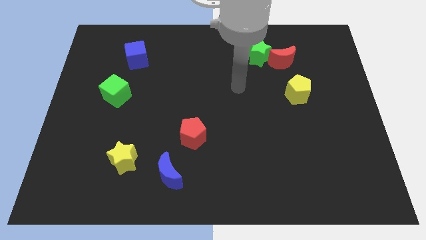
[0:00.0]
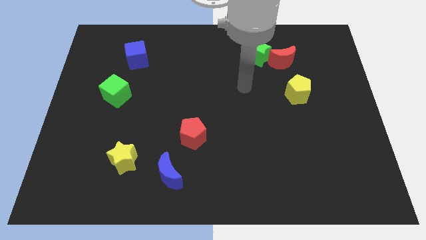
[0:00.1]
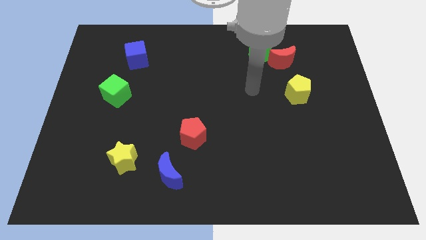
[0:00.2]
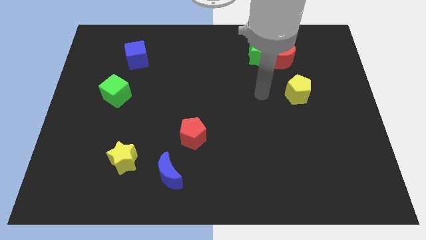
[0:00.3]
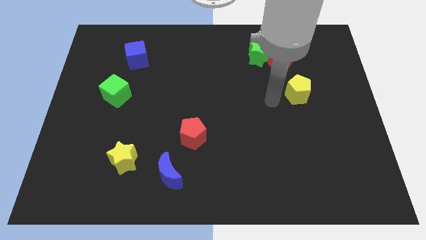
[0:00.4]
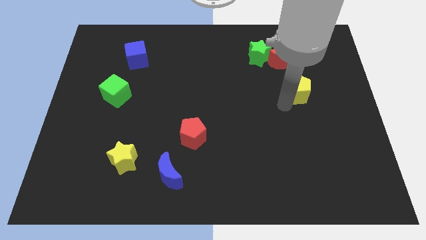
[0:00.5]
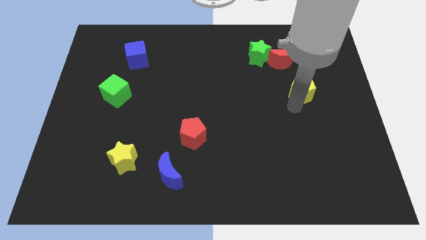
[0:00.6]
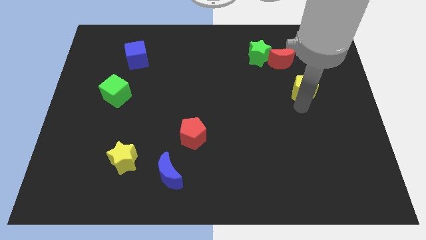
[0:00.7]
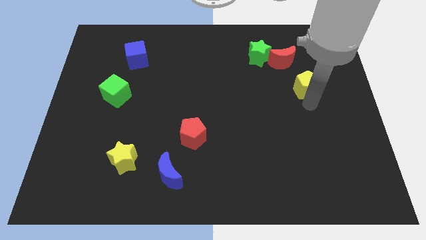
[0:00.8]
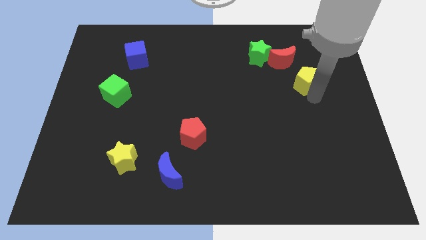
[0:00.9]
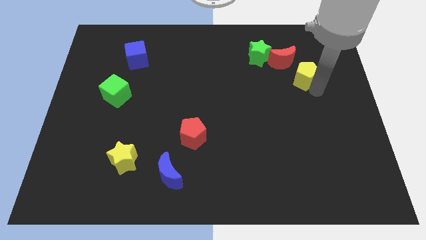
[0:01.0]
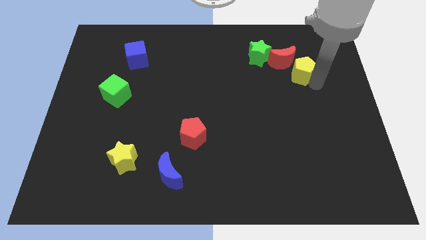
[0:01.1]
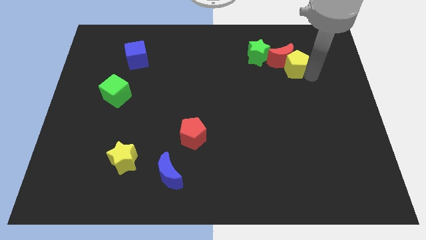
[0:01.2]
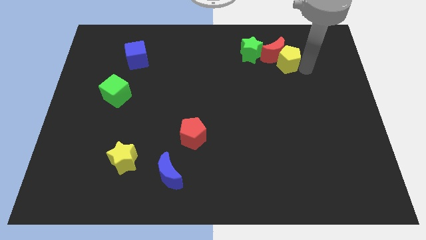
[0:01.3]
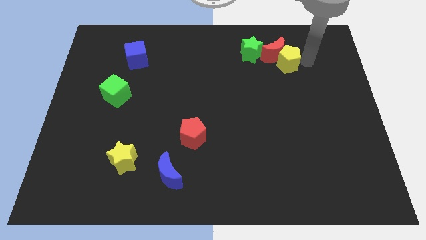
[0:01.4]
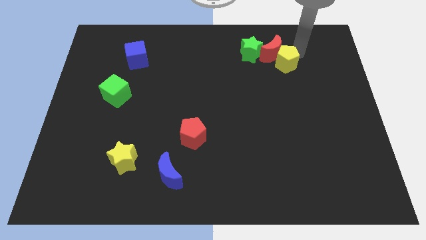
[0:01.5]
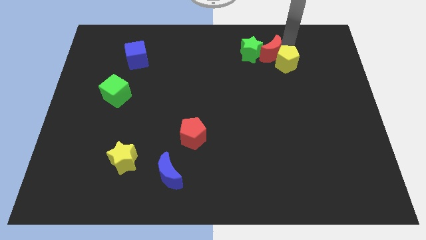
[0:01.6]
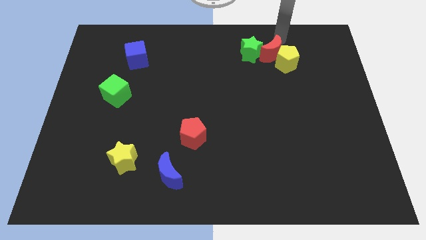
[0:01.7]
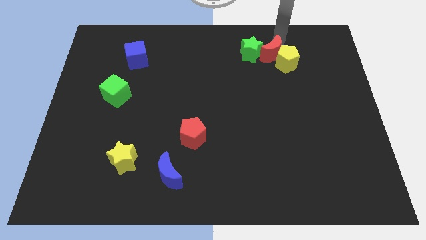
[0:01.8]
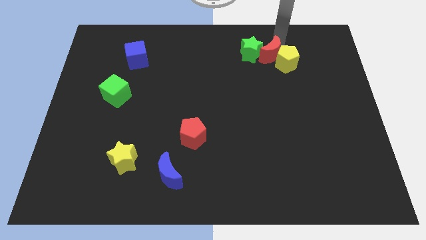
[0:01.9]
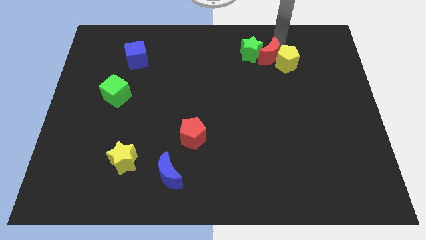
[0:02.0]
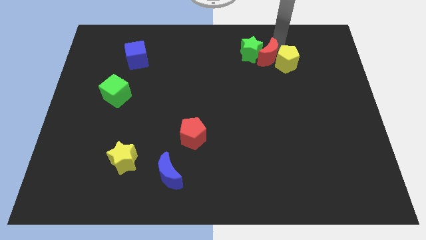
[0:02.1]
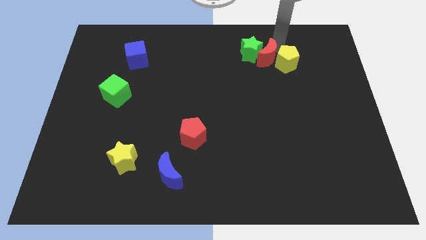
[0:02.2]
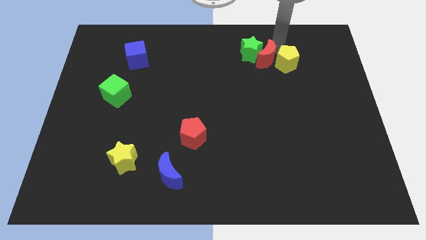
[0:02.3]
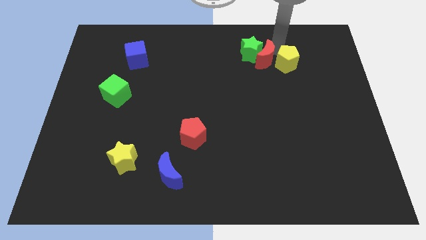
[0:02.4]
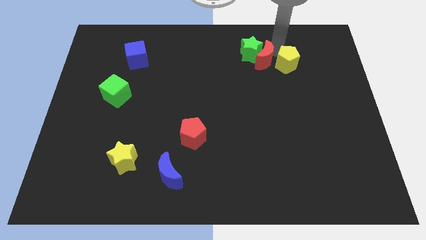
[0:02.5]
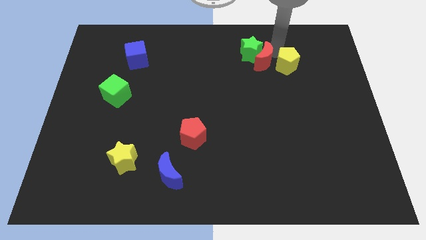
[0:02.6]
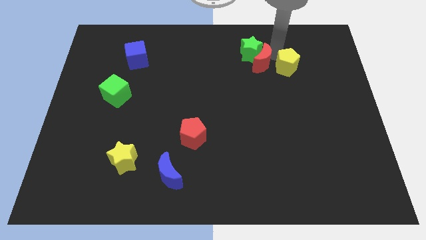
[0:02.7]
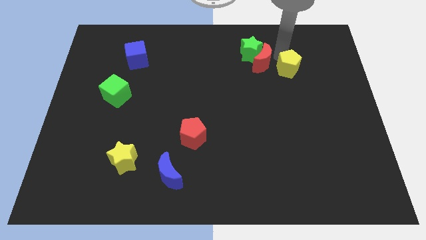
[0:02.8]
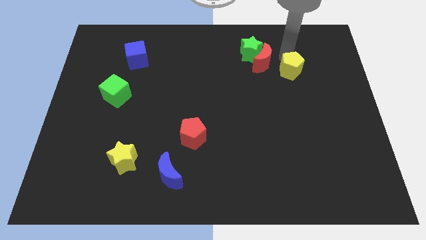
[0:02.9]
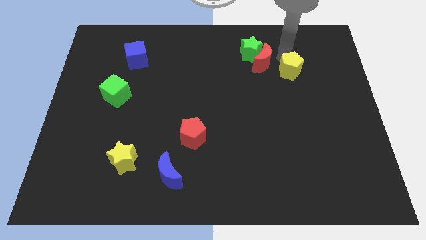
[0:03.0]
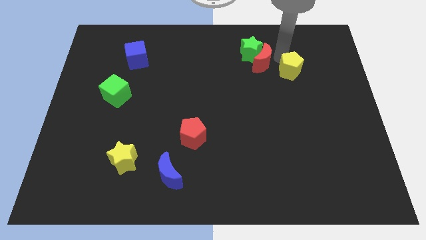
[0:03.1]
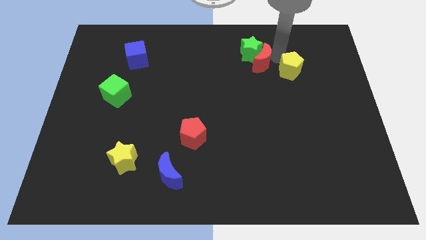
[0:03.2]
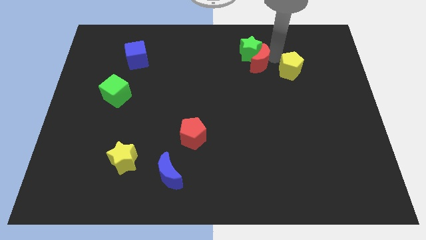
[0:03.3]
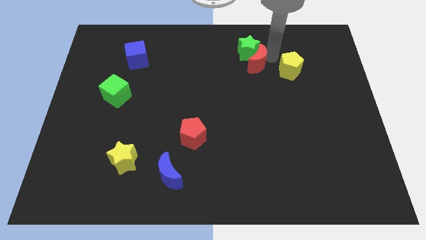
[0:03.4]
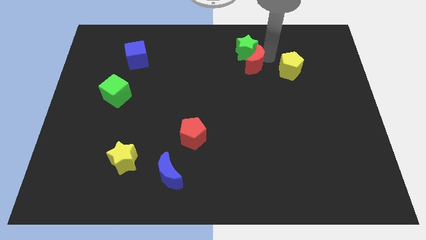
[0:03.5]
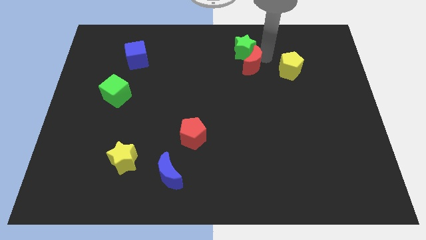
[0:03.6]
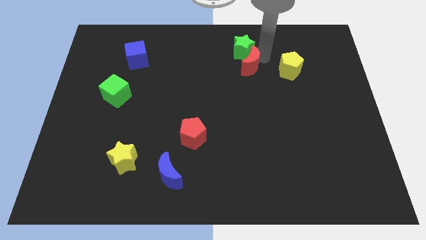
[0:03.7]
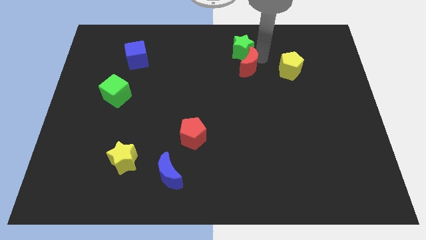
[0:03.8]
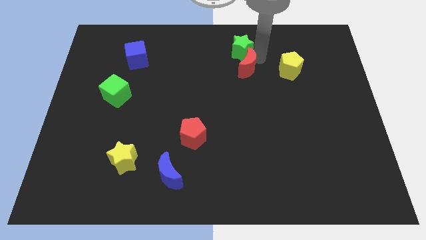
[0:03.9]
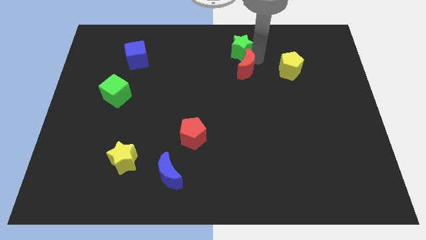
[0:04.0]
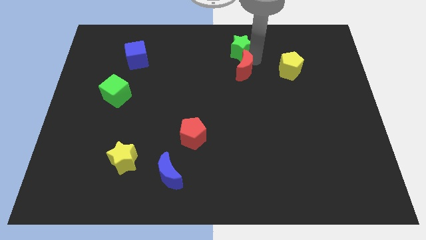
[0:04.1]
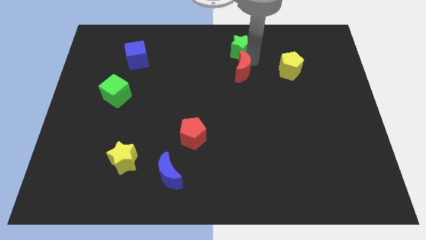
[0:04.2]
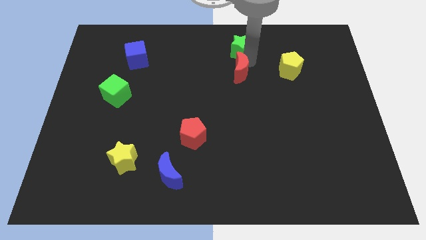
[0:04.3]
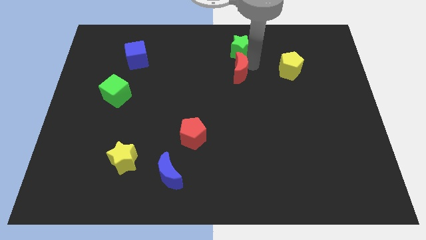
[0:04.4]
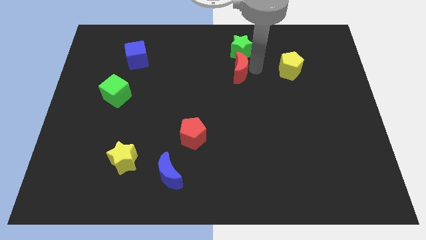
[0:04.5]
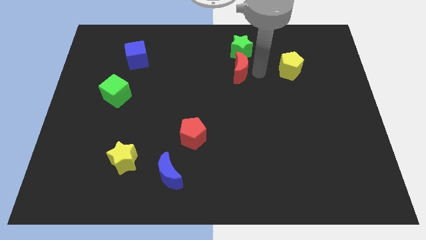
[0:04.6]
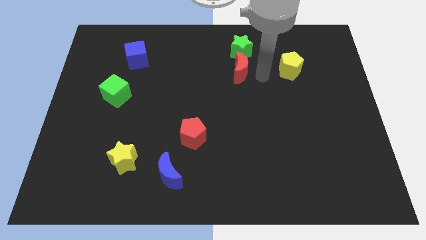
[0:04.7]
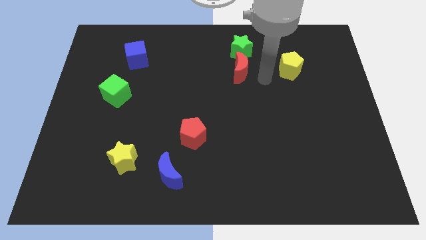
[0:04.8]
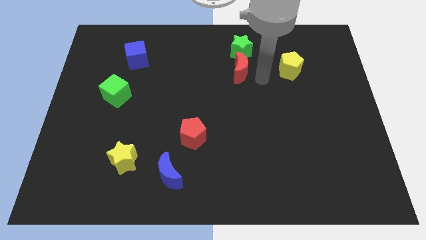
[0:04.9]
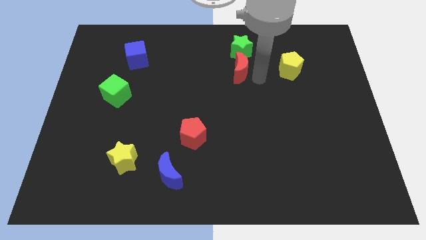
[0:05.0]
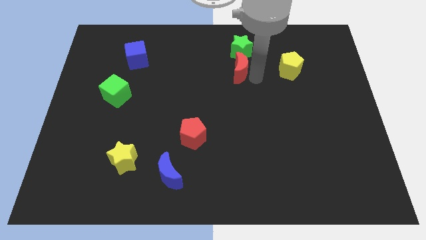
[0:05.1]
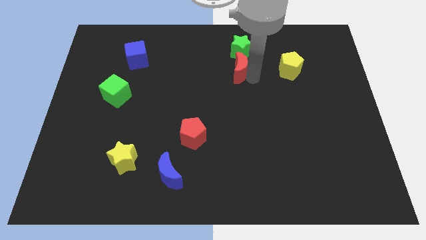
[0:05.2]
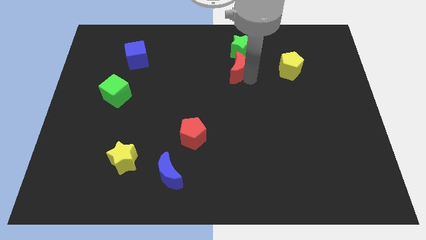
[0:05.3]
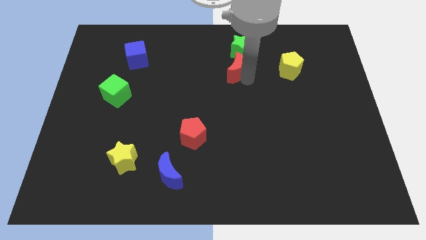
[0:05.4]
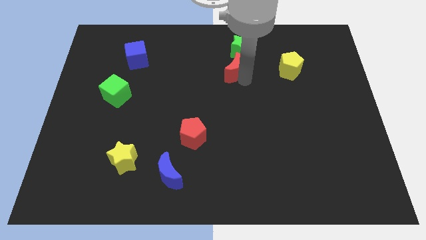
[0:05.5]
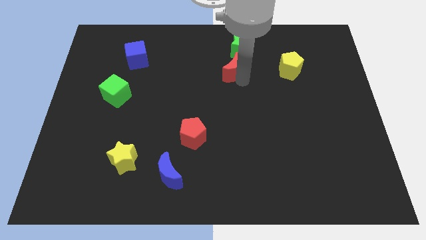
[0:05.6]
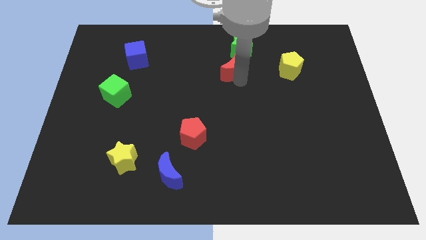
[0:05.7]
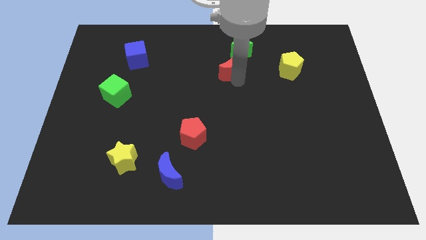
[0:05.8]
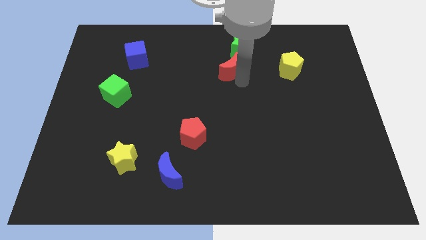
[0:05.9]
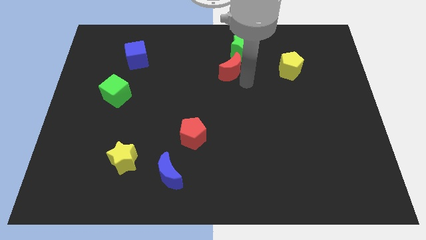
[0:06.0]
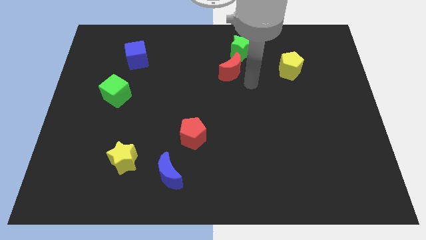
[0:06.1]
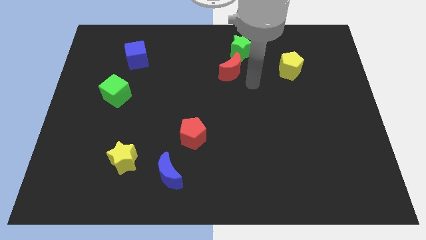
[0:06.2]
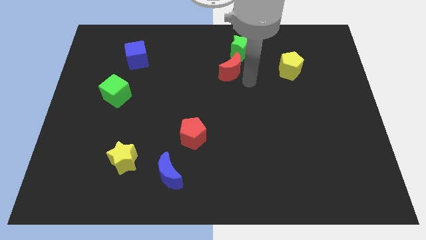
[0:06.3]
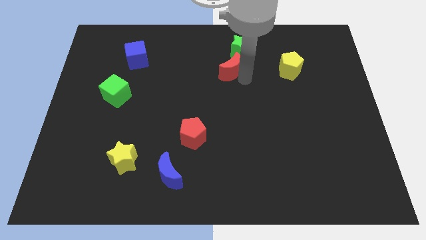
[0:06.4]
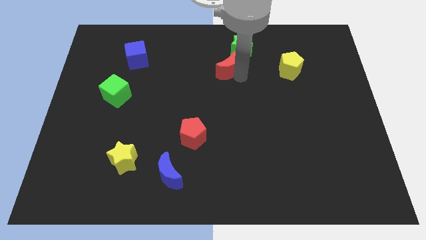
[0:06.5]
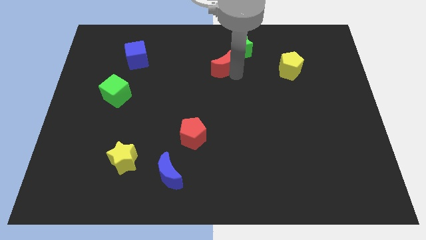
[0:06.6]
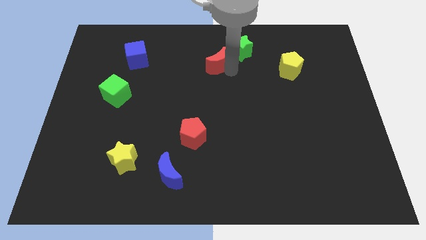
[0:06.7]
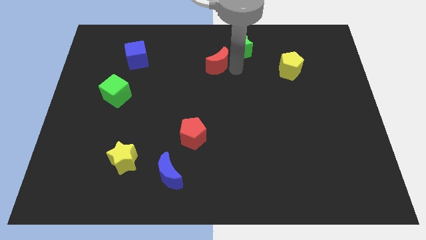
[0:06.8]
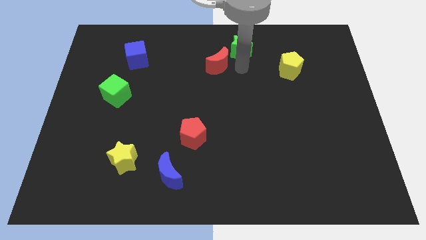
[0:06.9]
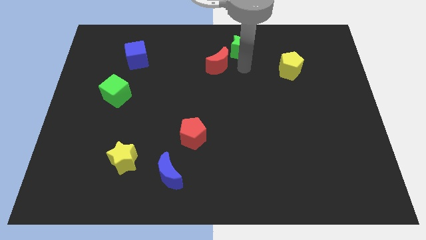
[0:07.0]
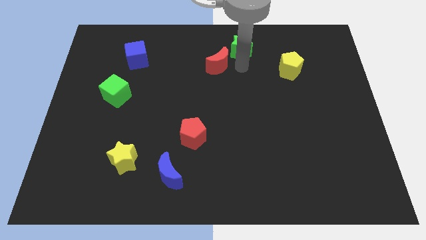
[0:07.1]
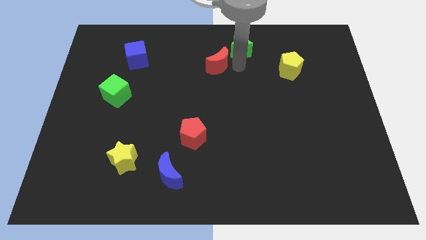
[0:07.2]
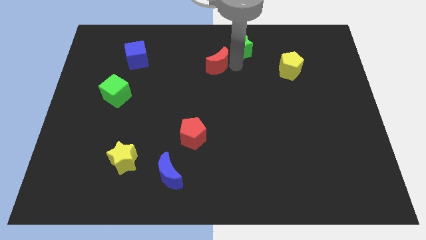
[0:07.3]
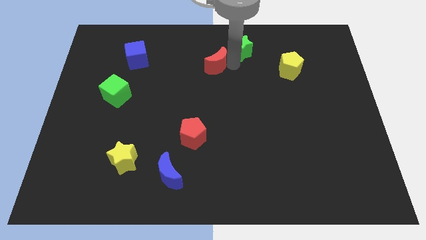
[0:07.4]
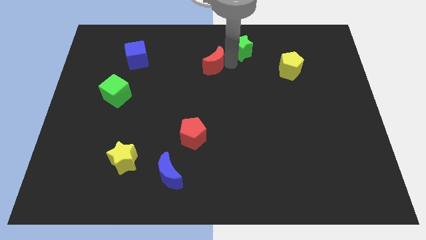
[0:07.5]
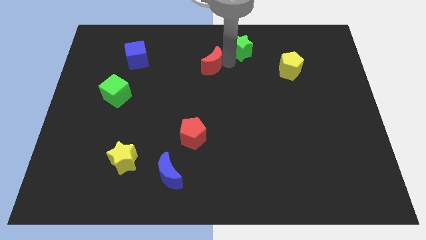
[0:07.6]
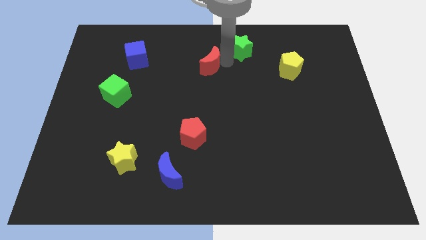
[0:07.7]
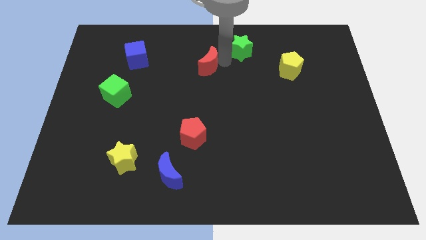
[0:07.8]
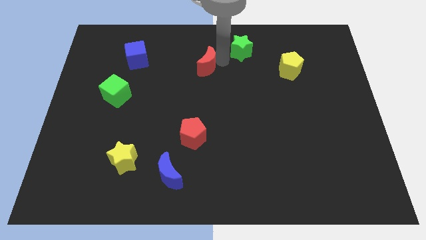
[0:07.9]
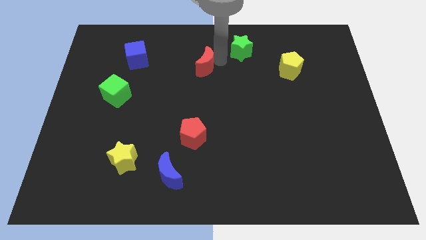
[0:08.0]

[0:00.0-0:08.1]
slide the red moon left
